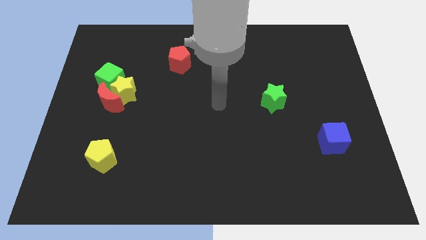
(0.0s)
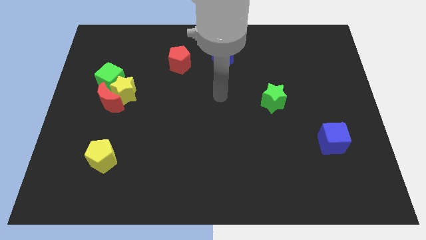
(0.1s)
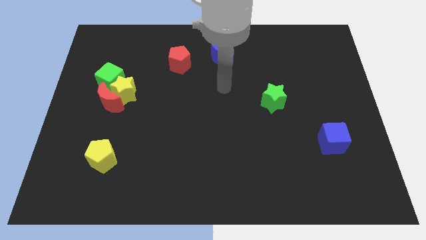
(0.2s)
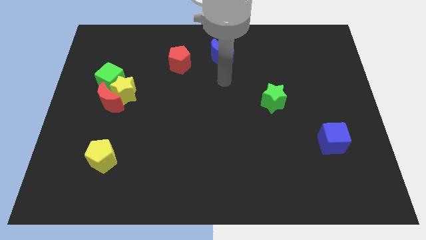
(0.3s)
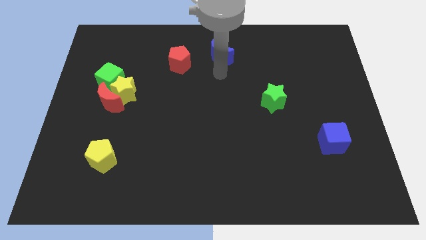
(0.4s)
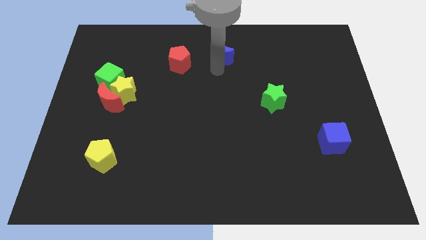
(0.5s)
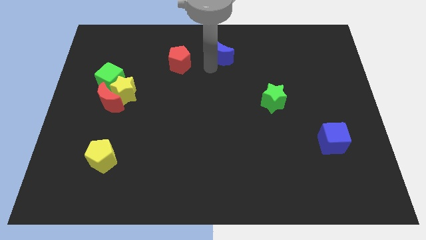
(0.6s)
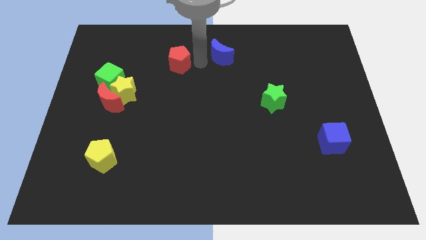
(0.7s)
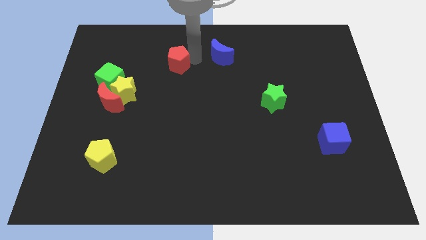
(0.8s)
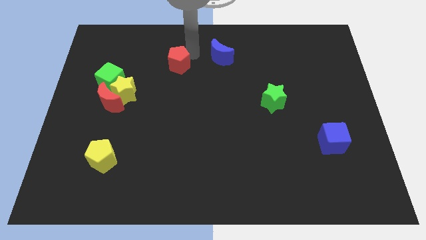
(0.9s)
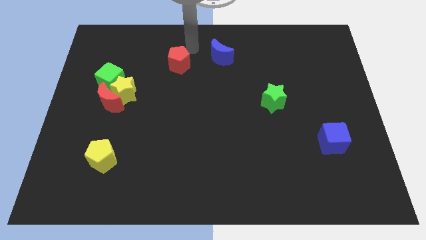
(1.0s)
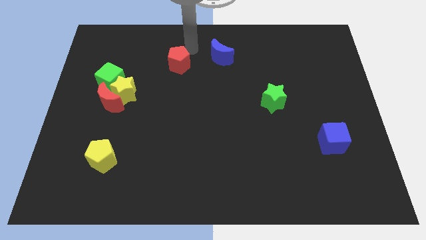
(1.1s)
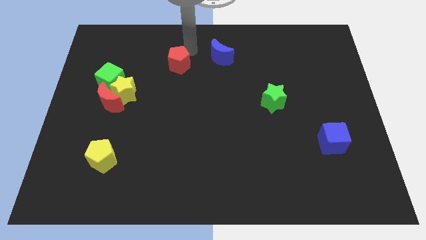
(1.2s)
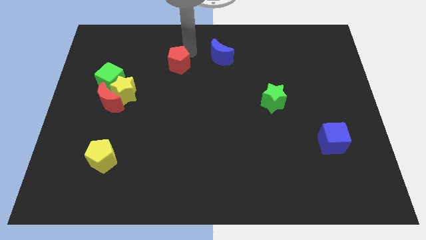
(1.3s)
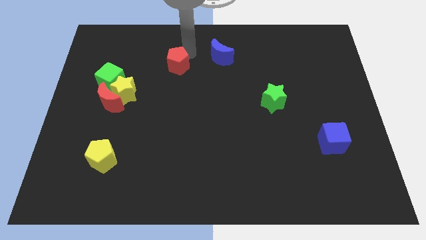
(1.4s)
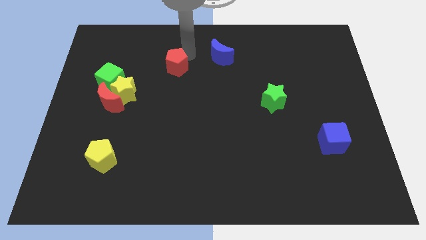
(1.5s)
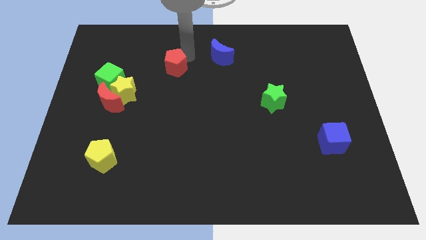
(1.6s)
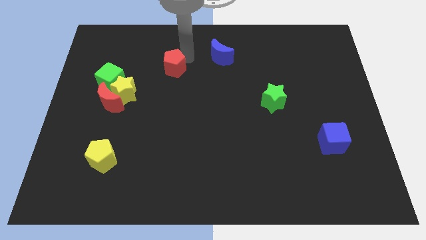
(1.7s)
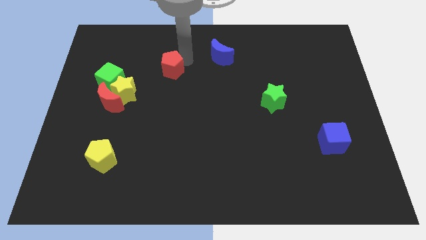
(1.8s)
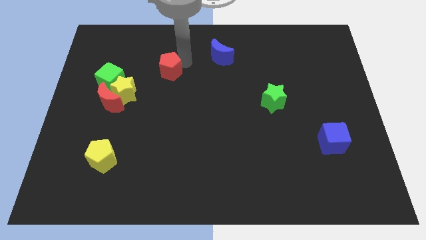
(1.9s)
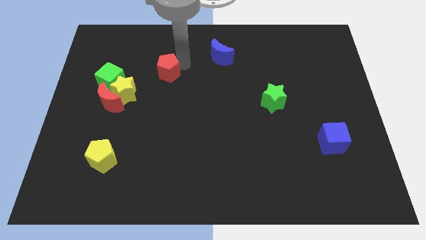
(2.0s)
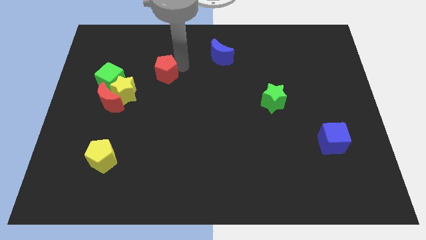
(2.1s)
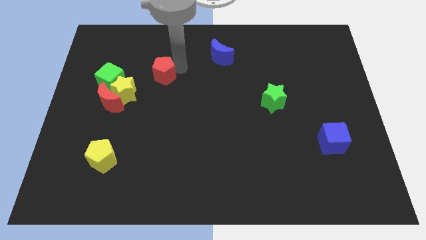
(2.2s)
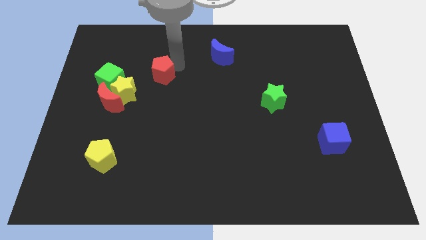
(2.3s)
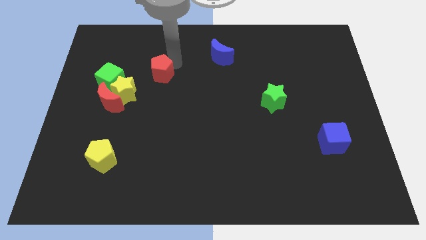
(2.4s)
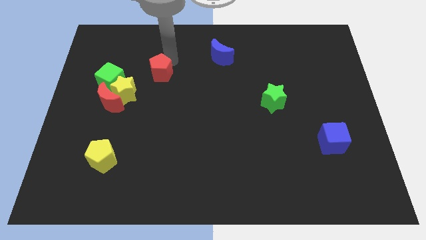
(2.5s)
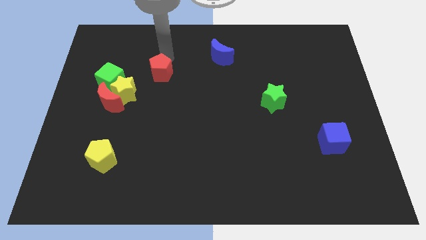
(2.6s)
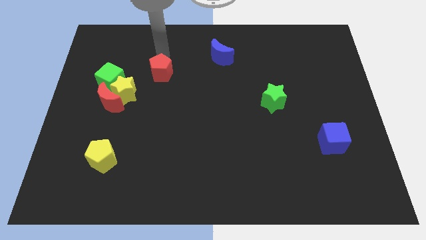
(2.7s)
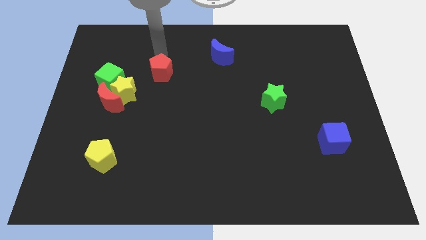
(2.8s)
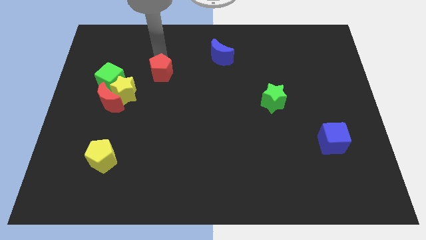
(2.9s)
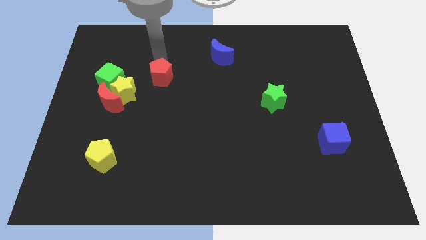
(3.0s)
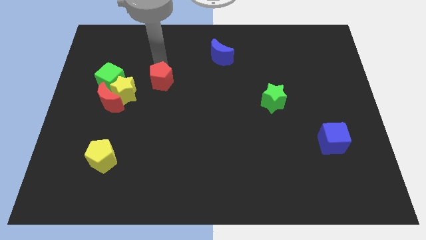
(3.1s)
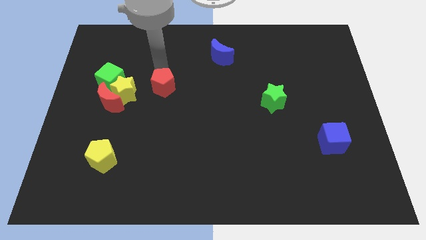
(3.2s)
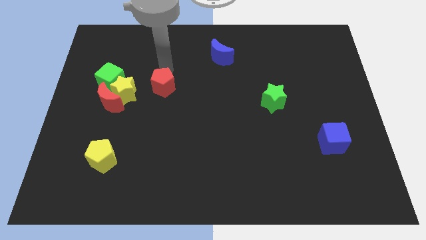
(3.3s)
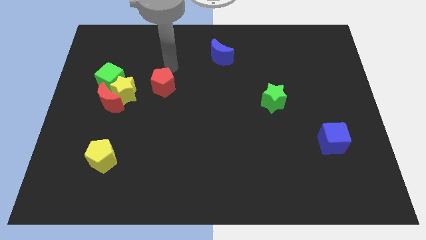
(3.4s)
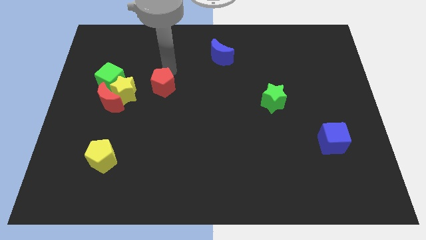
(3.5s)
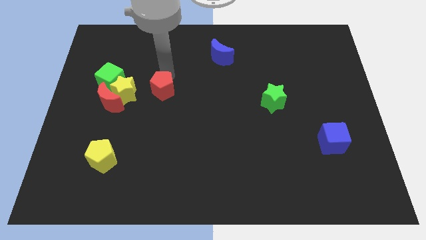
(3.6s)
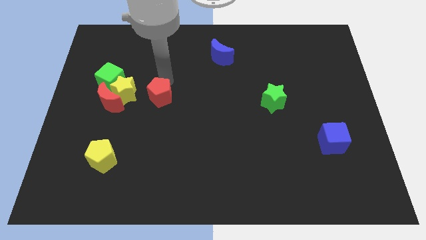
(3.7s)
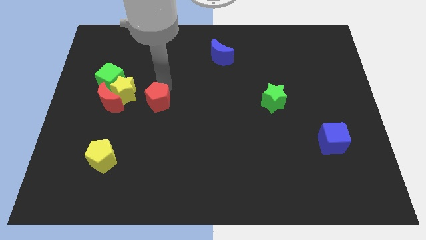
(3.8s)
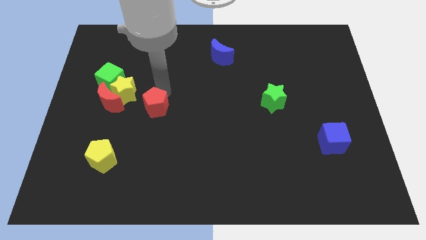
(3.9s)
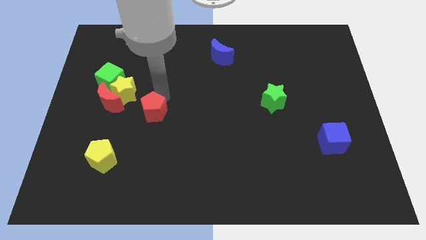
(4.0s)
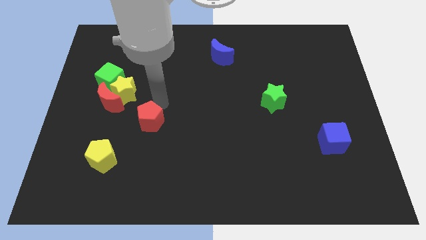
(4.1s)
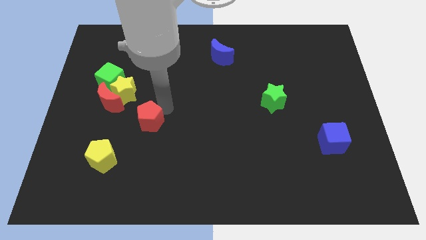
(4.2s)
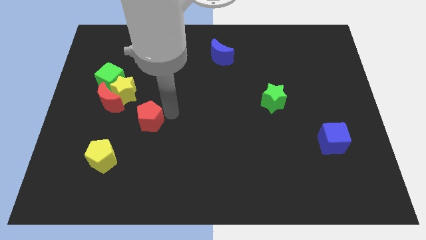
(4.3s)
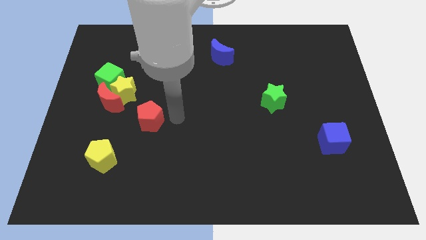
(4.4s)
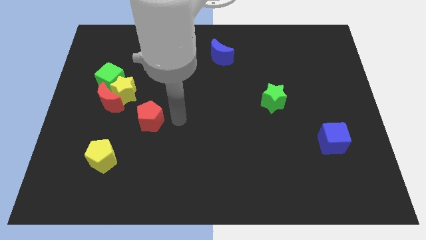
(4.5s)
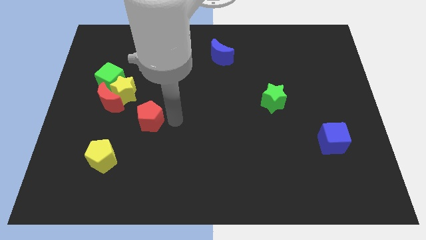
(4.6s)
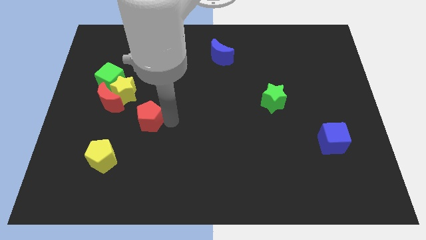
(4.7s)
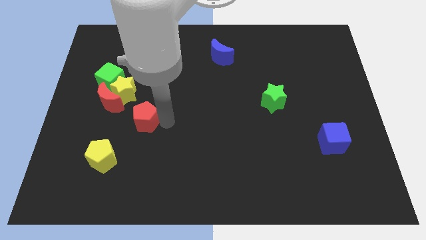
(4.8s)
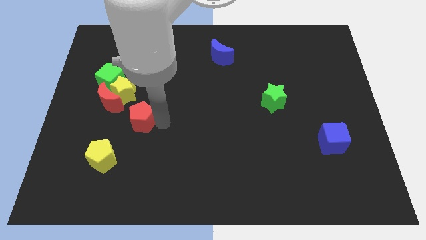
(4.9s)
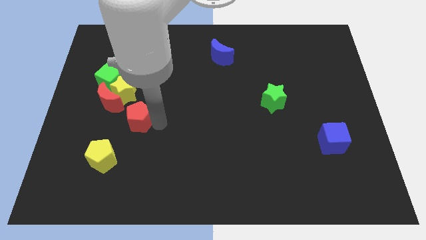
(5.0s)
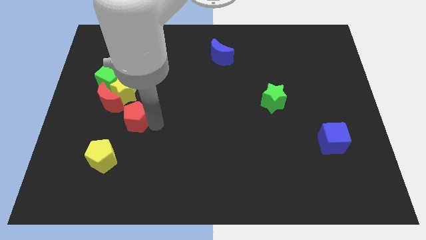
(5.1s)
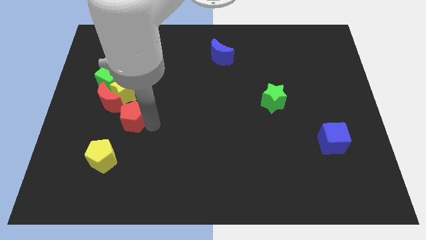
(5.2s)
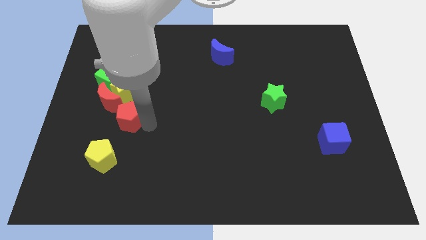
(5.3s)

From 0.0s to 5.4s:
push the red pentagon to the top side of the yellow pentagon

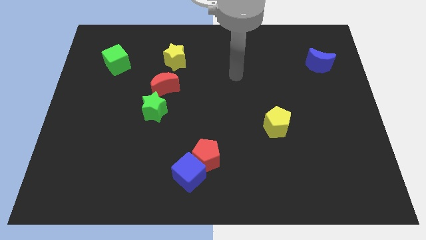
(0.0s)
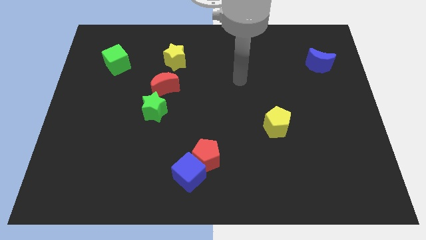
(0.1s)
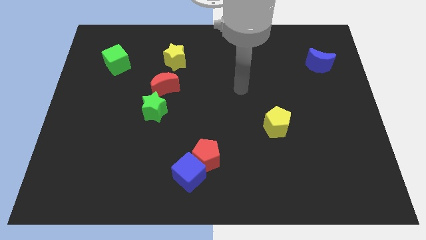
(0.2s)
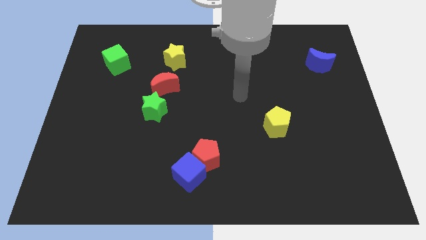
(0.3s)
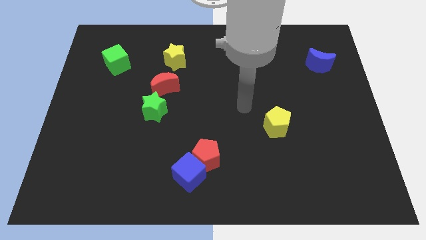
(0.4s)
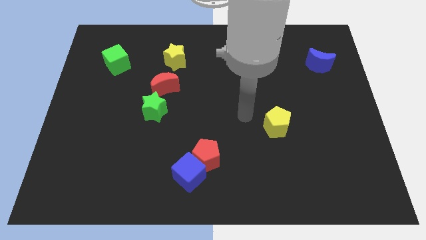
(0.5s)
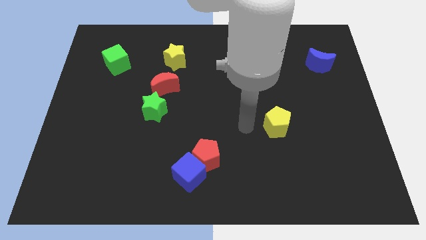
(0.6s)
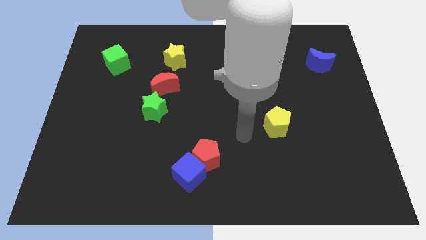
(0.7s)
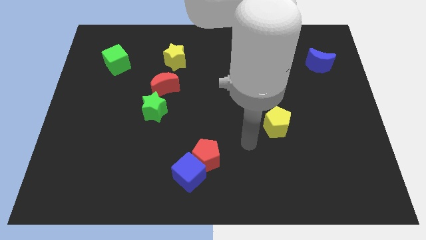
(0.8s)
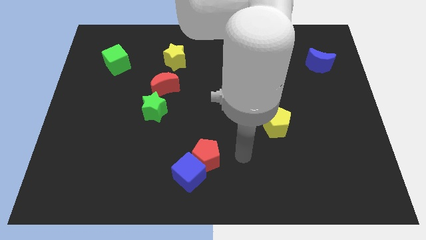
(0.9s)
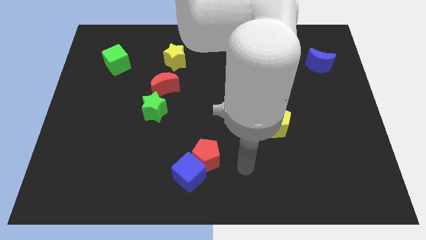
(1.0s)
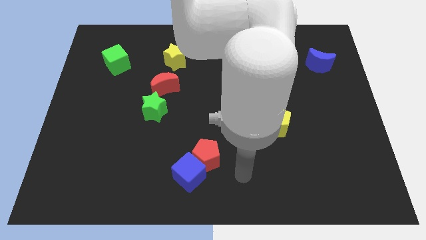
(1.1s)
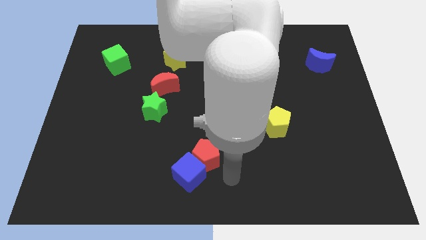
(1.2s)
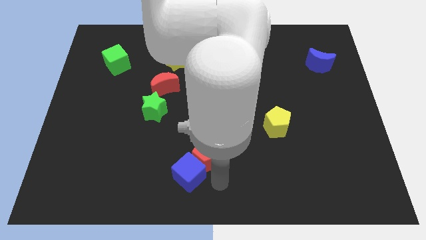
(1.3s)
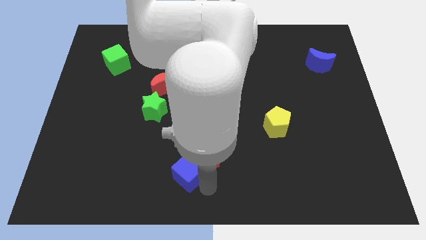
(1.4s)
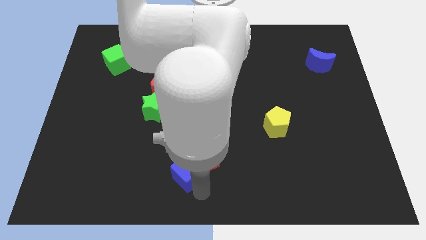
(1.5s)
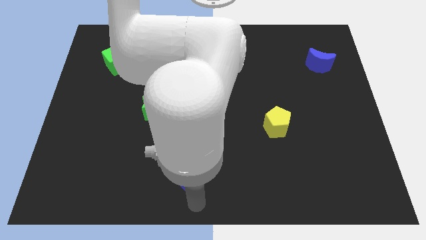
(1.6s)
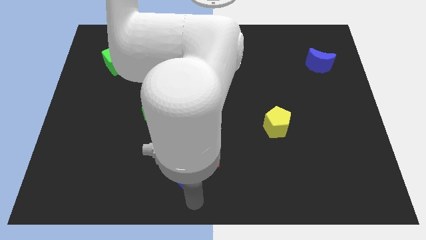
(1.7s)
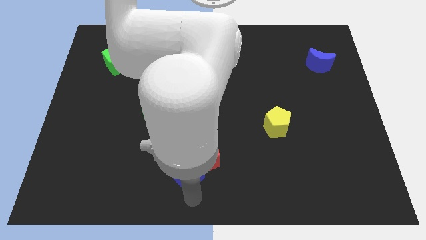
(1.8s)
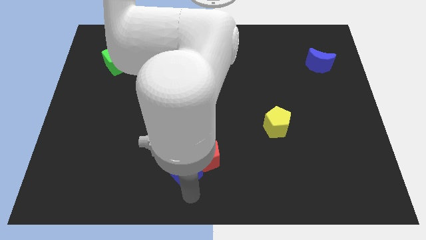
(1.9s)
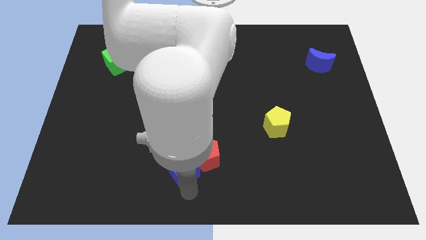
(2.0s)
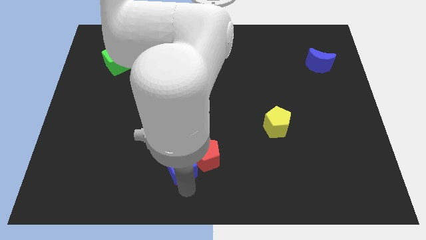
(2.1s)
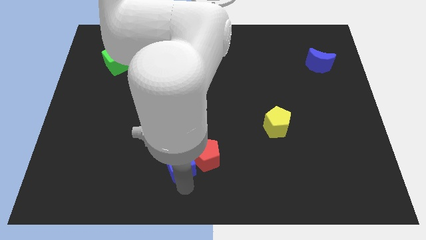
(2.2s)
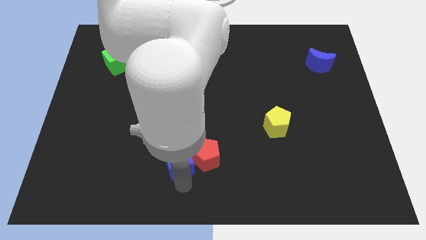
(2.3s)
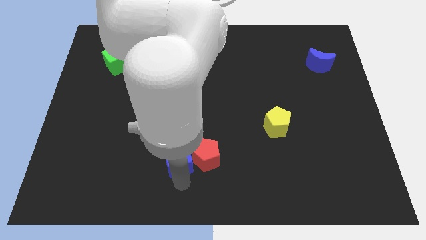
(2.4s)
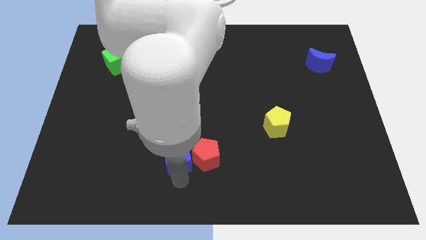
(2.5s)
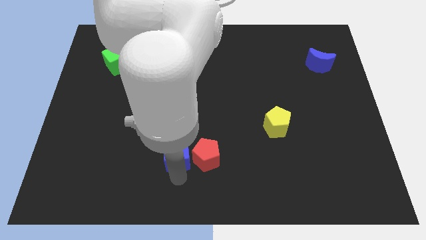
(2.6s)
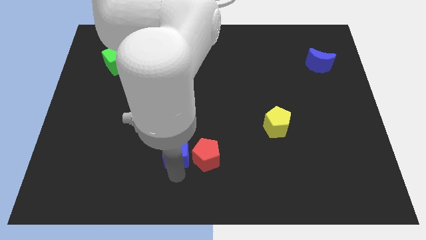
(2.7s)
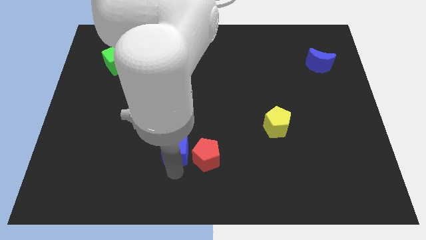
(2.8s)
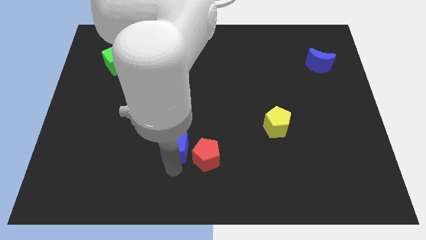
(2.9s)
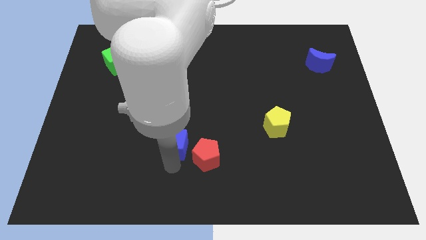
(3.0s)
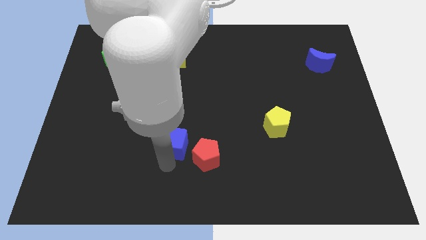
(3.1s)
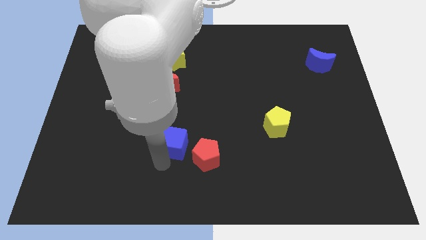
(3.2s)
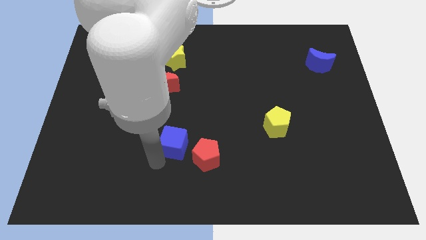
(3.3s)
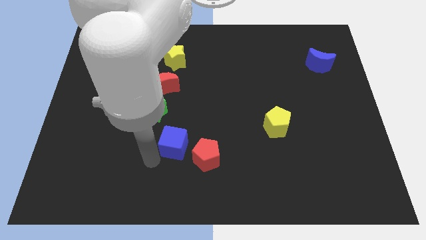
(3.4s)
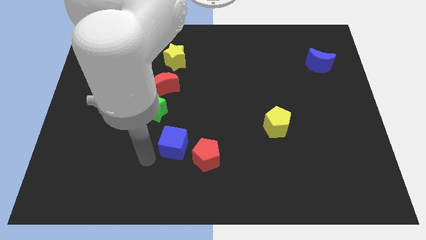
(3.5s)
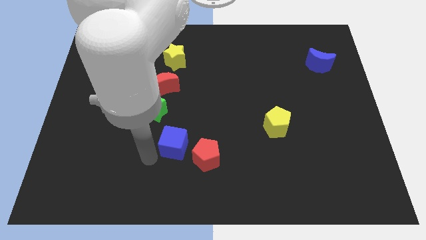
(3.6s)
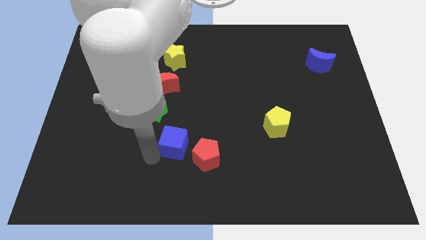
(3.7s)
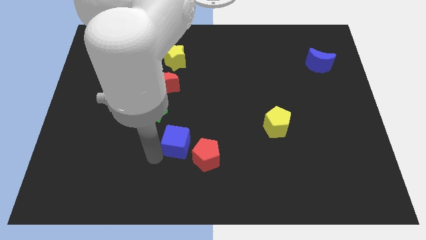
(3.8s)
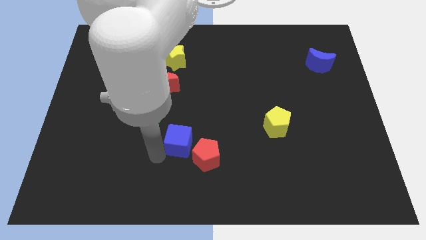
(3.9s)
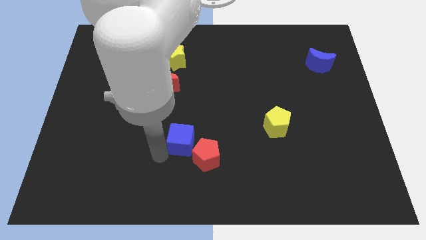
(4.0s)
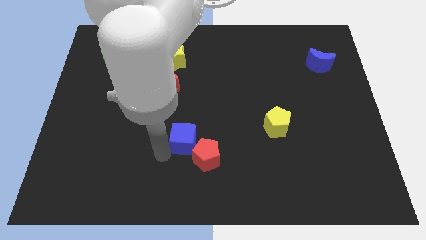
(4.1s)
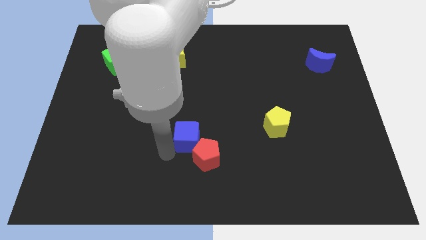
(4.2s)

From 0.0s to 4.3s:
move the blue cube to the top side of the red pentagon
